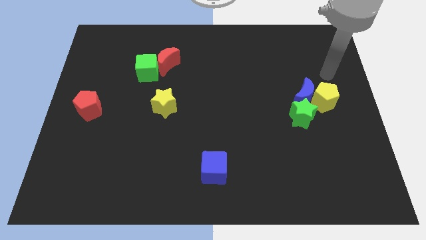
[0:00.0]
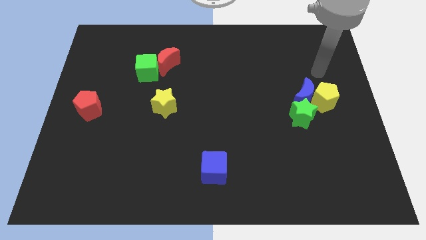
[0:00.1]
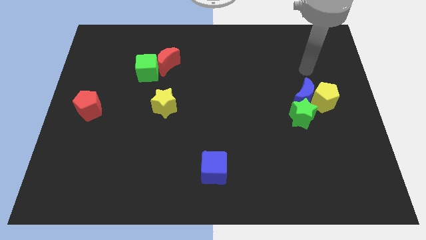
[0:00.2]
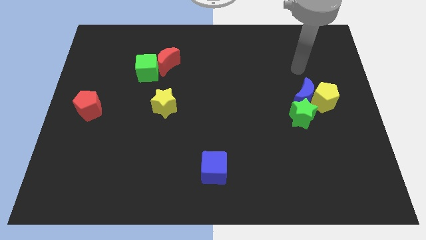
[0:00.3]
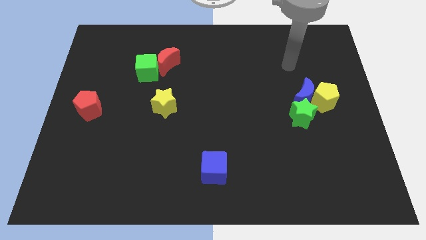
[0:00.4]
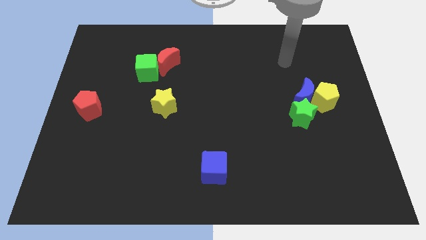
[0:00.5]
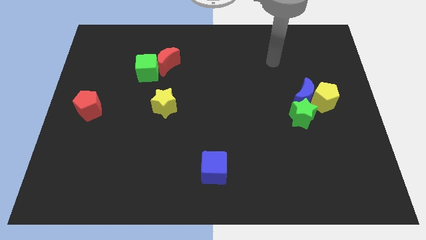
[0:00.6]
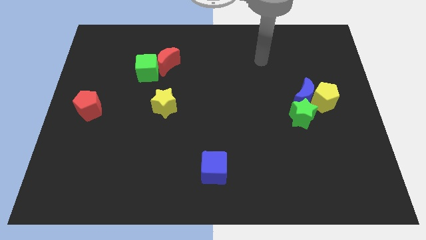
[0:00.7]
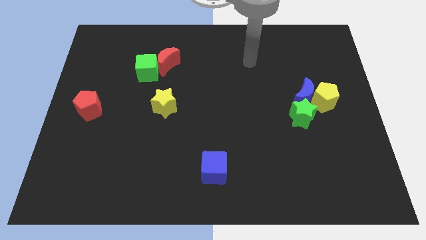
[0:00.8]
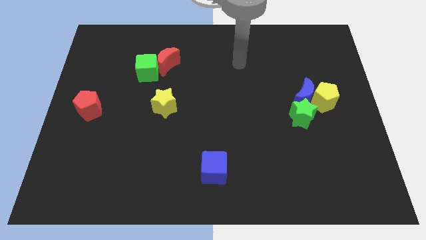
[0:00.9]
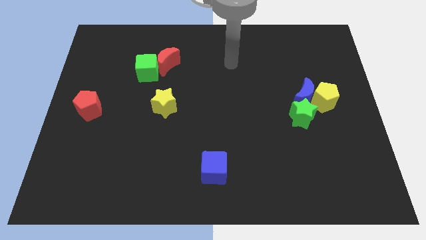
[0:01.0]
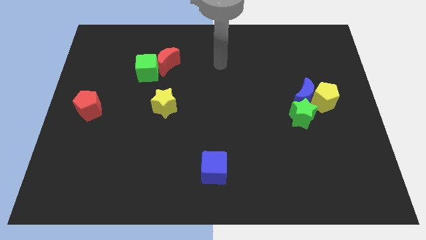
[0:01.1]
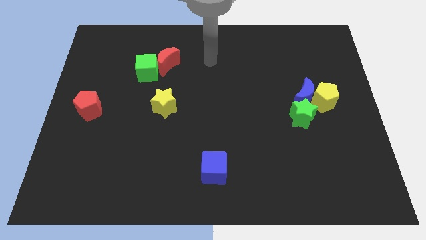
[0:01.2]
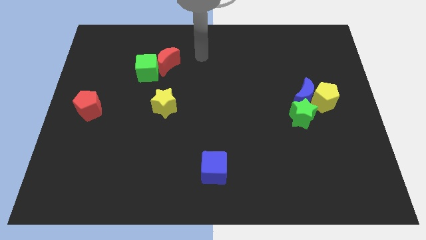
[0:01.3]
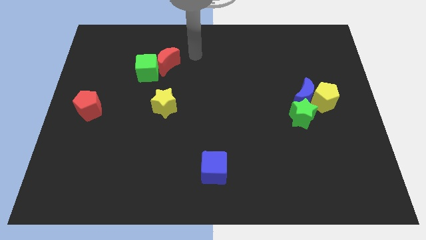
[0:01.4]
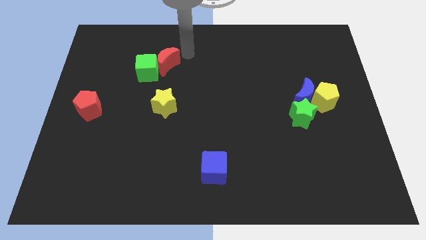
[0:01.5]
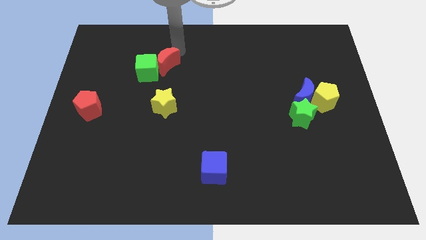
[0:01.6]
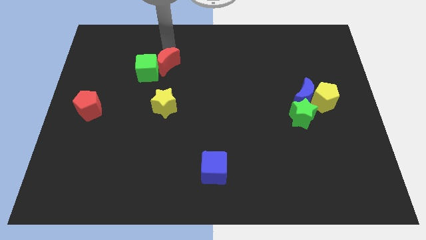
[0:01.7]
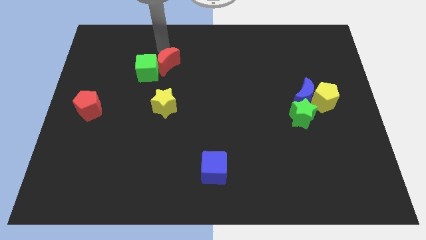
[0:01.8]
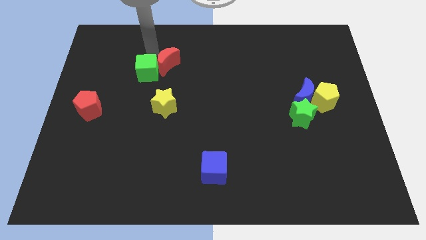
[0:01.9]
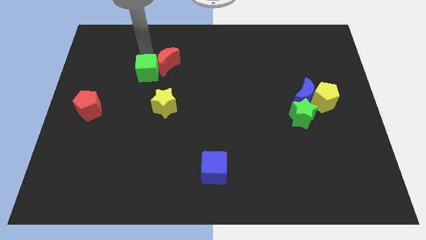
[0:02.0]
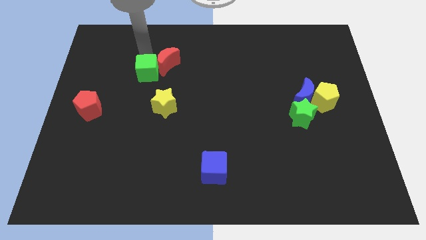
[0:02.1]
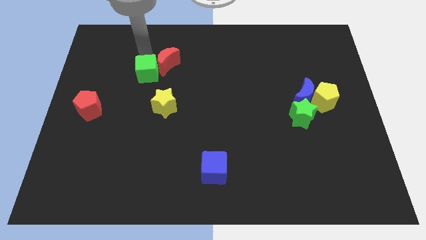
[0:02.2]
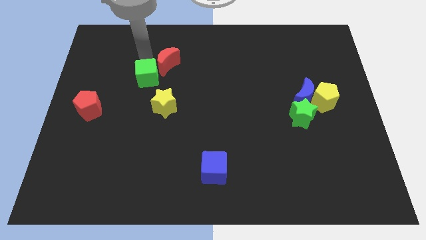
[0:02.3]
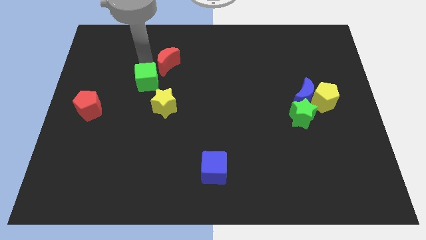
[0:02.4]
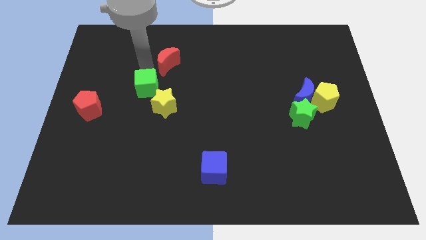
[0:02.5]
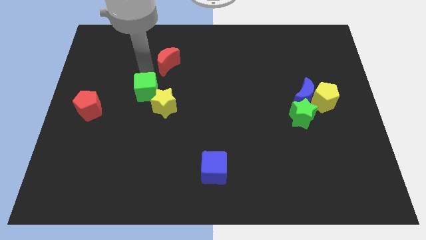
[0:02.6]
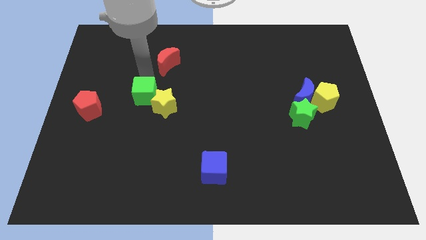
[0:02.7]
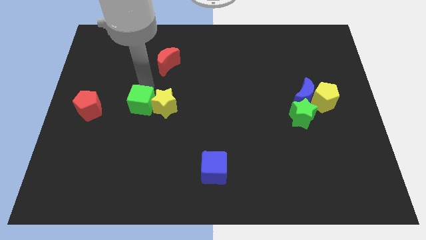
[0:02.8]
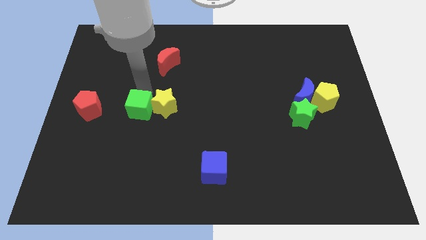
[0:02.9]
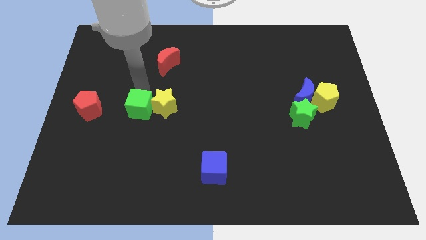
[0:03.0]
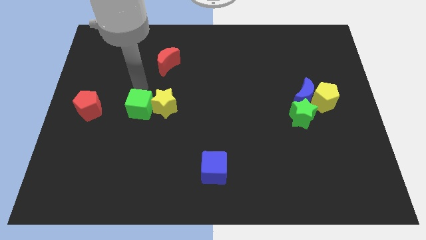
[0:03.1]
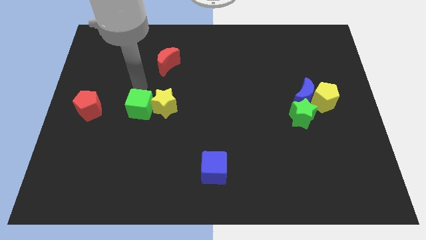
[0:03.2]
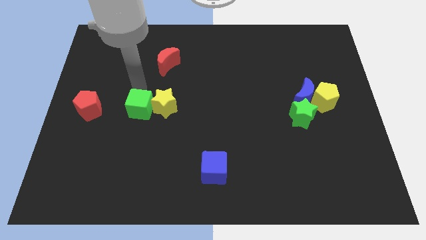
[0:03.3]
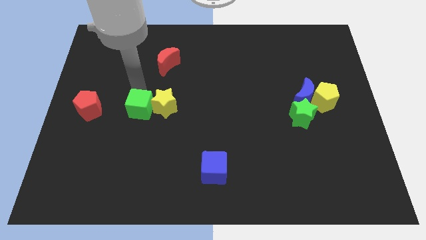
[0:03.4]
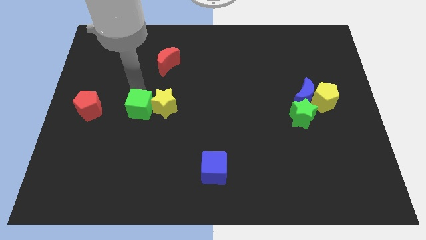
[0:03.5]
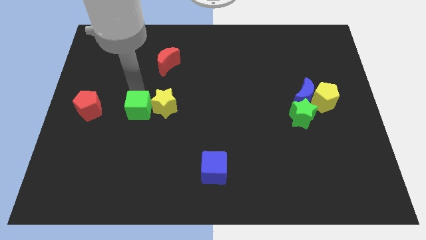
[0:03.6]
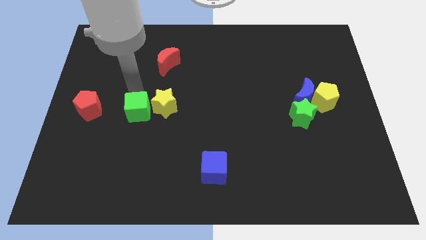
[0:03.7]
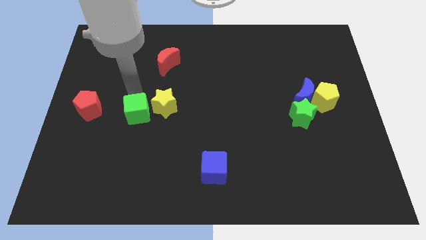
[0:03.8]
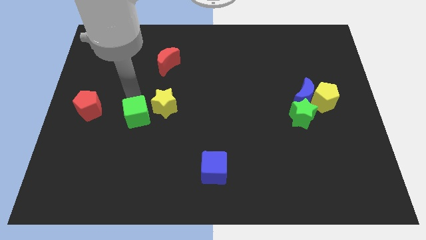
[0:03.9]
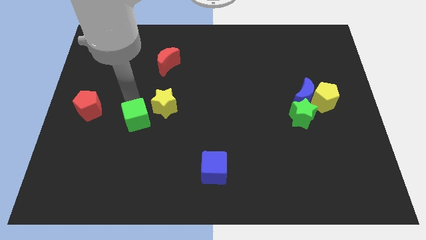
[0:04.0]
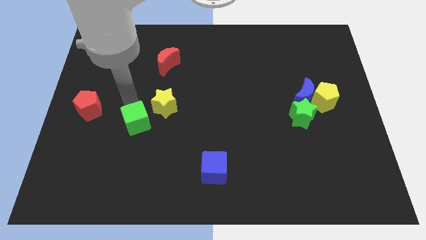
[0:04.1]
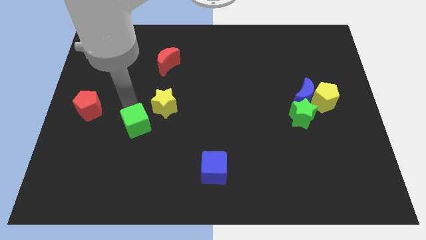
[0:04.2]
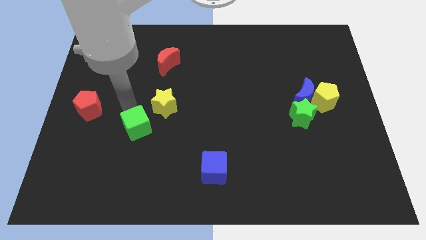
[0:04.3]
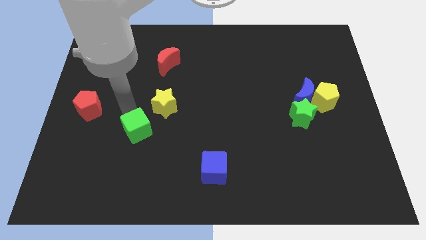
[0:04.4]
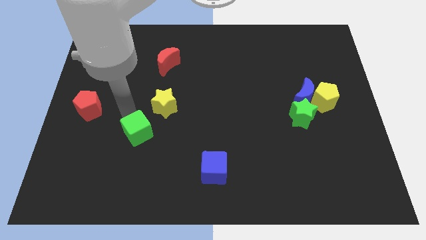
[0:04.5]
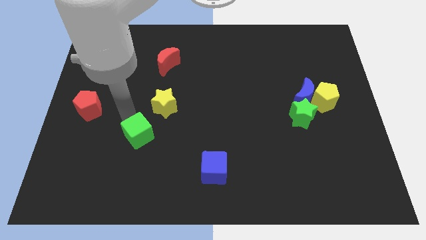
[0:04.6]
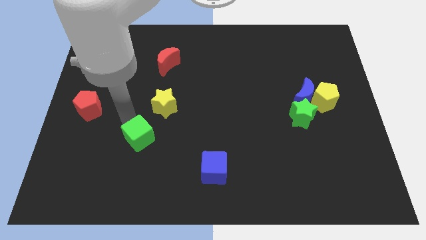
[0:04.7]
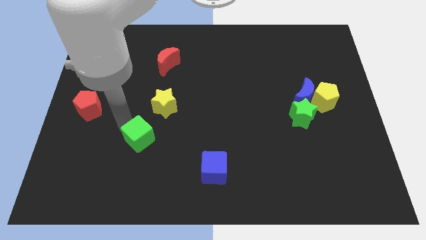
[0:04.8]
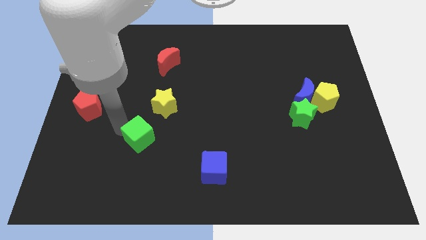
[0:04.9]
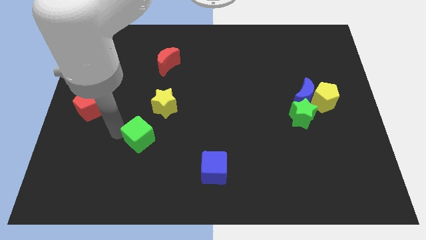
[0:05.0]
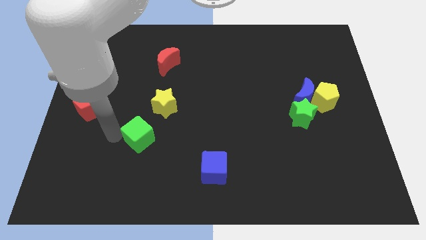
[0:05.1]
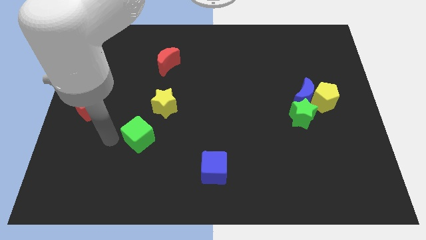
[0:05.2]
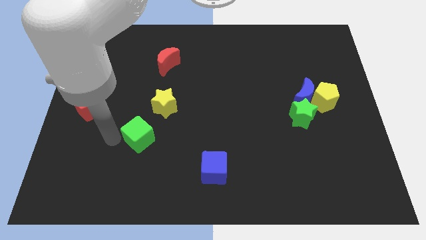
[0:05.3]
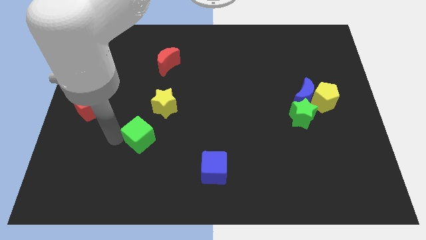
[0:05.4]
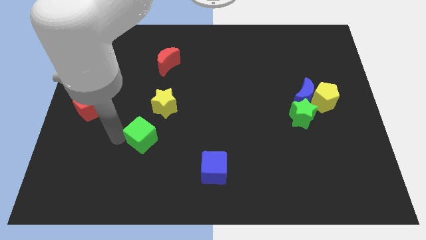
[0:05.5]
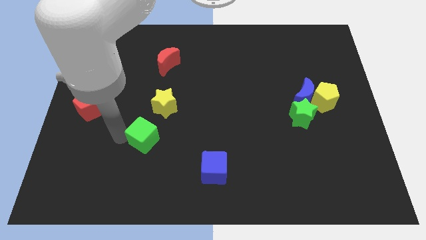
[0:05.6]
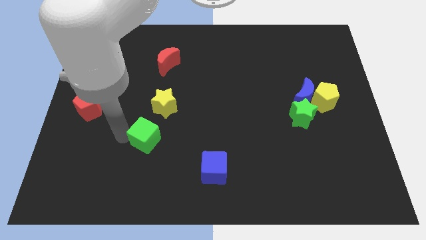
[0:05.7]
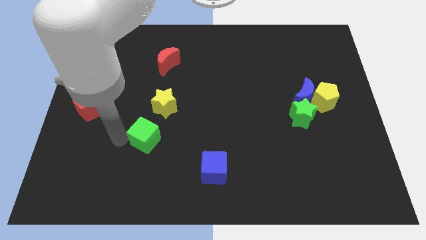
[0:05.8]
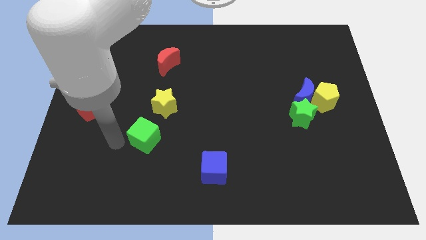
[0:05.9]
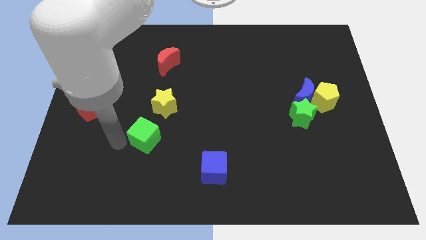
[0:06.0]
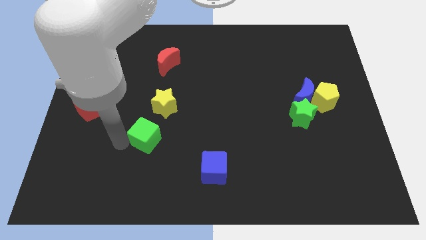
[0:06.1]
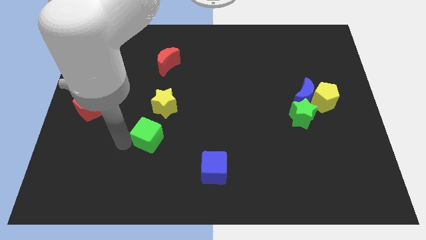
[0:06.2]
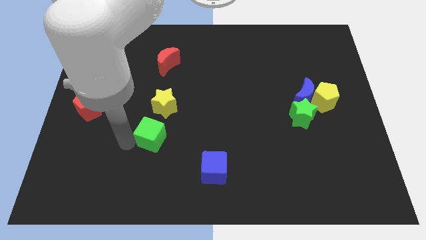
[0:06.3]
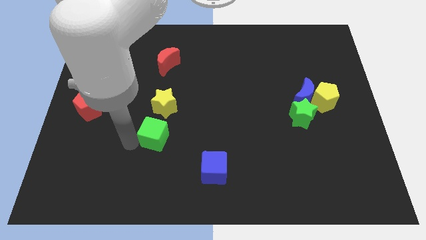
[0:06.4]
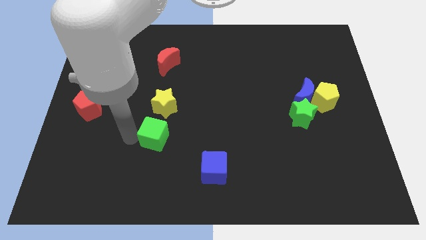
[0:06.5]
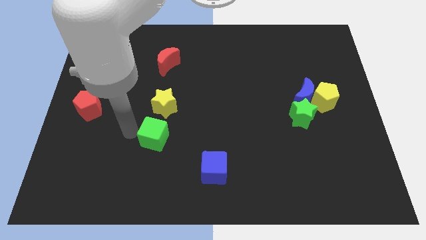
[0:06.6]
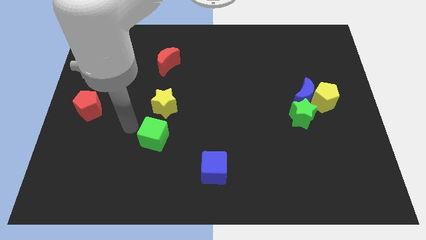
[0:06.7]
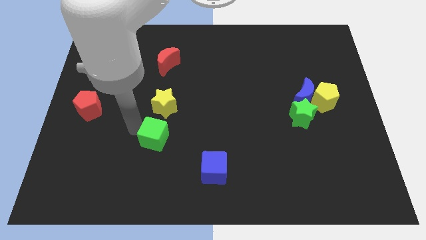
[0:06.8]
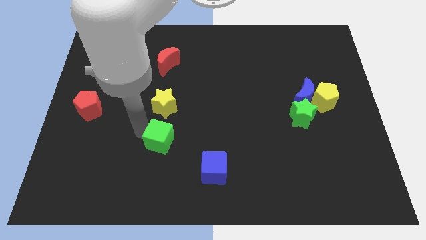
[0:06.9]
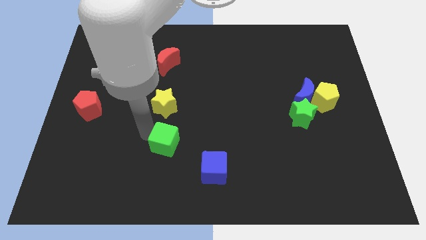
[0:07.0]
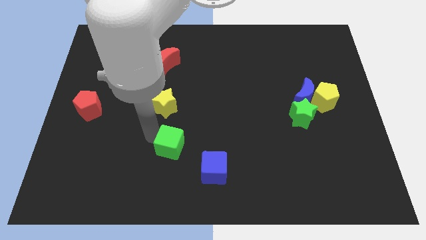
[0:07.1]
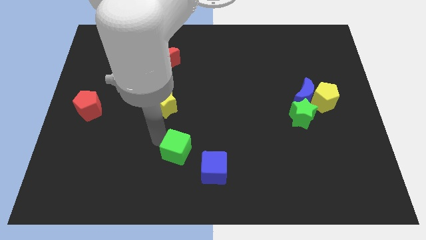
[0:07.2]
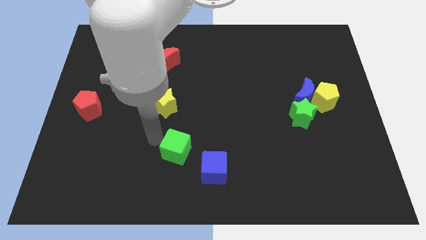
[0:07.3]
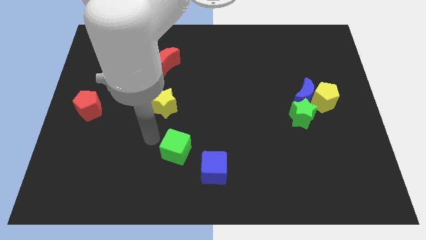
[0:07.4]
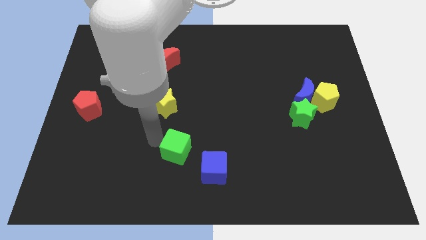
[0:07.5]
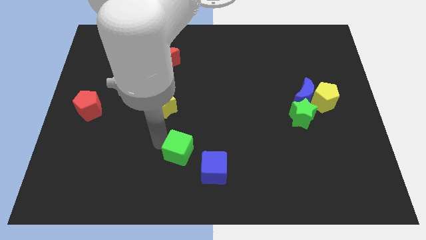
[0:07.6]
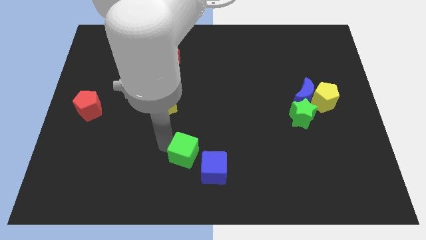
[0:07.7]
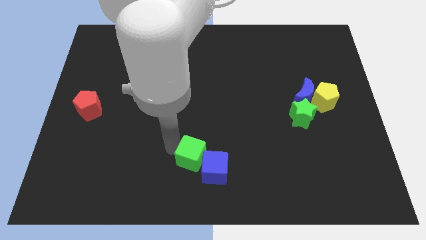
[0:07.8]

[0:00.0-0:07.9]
move the green cube to the blue cube
